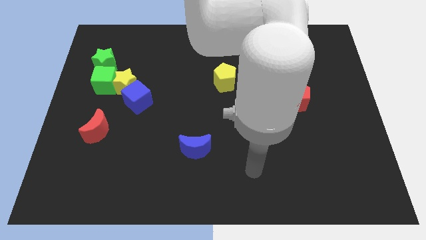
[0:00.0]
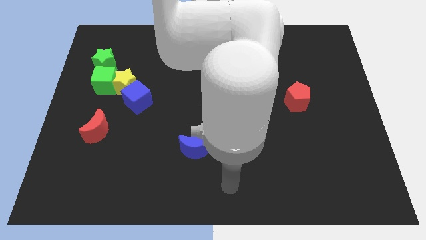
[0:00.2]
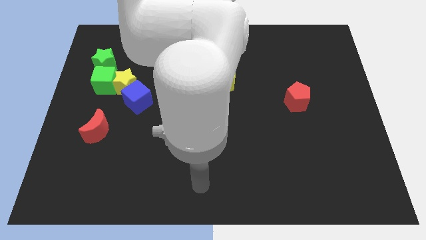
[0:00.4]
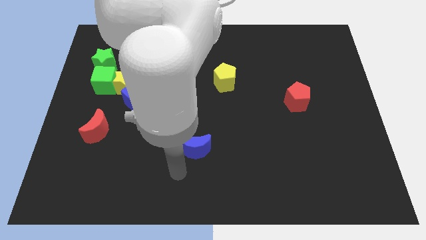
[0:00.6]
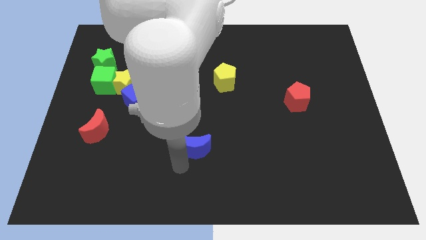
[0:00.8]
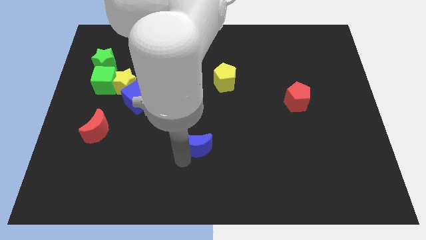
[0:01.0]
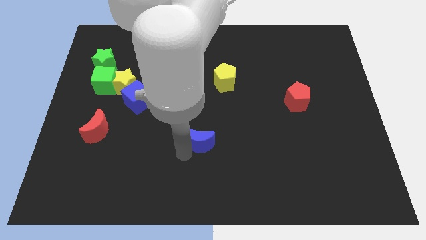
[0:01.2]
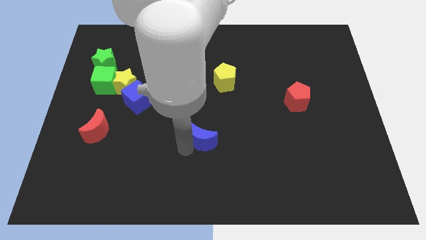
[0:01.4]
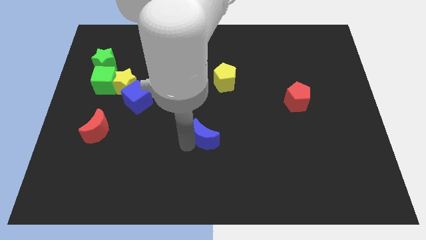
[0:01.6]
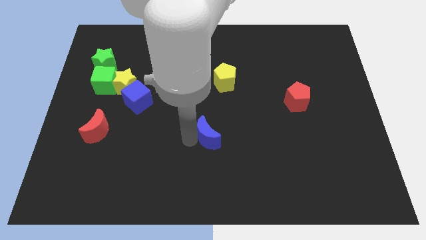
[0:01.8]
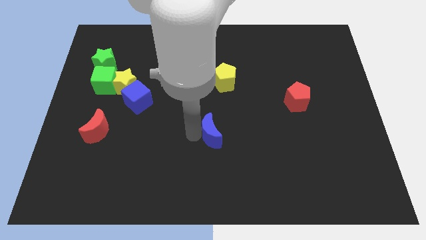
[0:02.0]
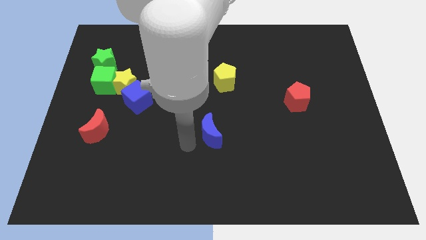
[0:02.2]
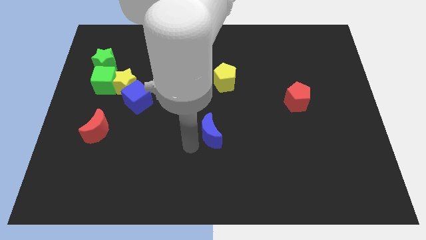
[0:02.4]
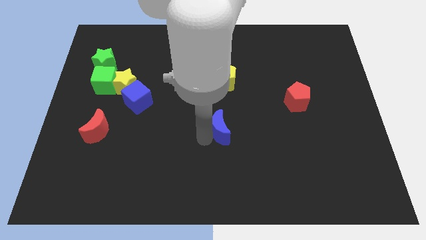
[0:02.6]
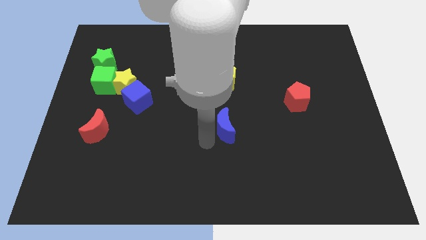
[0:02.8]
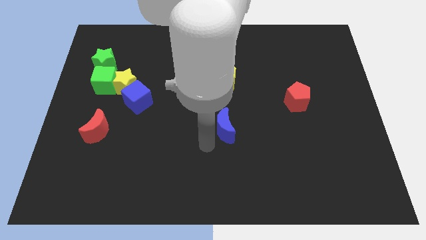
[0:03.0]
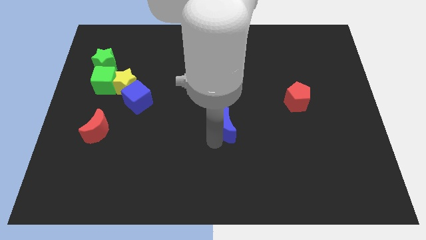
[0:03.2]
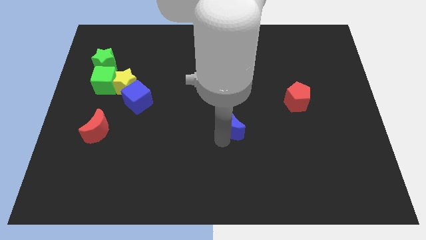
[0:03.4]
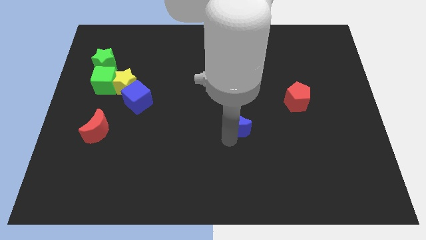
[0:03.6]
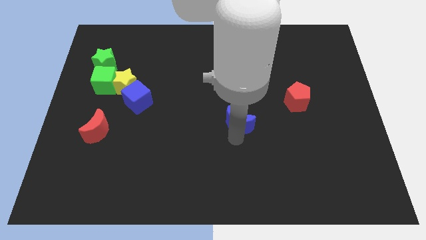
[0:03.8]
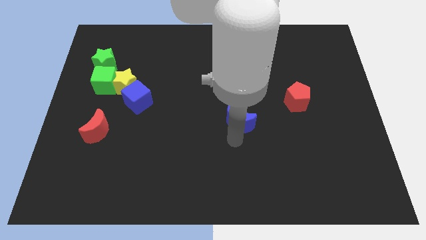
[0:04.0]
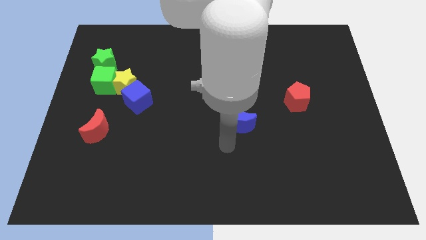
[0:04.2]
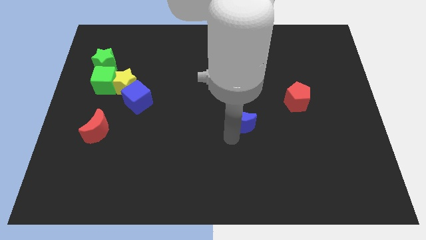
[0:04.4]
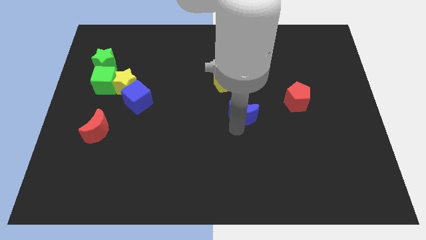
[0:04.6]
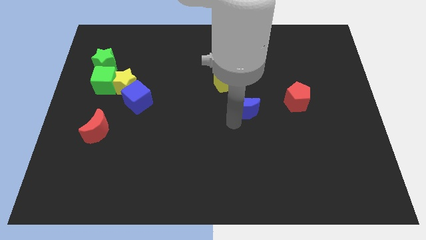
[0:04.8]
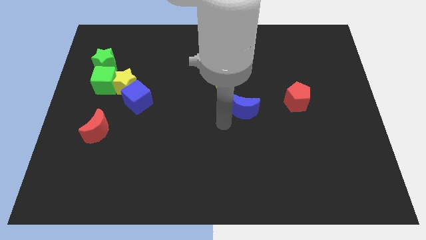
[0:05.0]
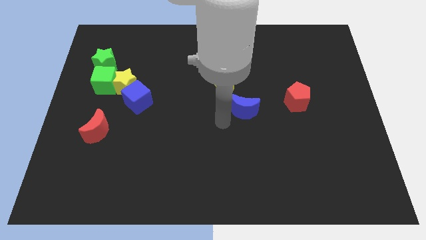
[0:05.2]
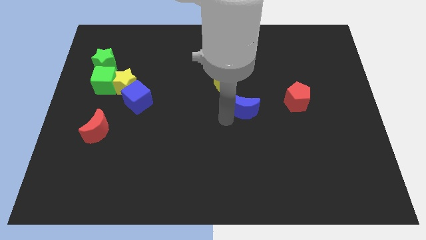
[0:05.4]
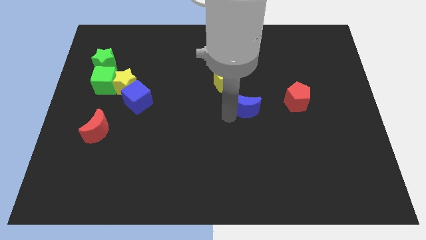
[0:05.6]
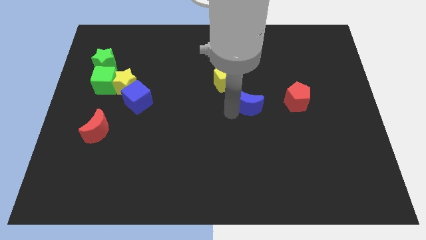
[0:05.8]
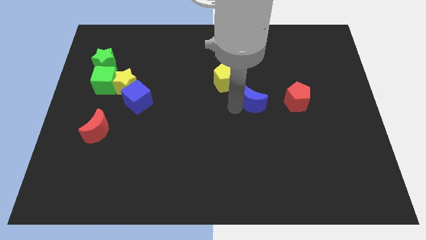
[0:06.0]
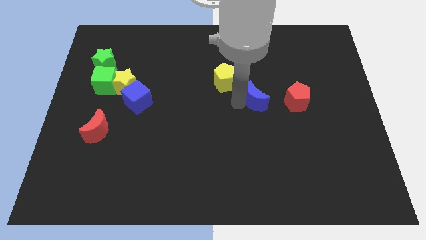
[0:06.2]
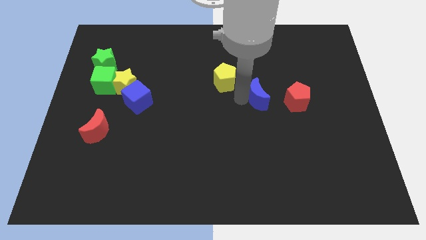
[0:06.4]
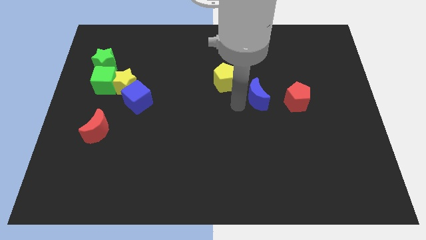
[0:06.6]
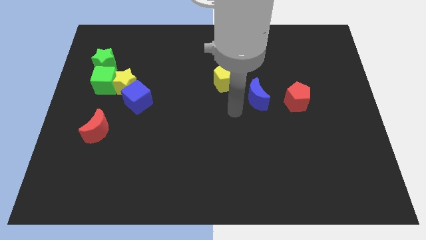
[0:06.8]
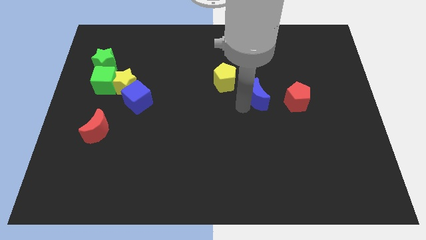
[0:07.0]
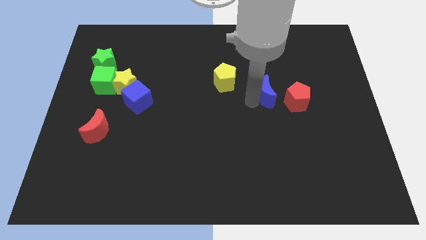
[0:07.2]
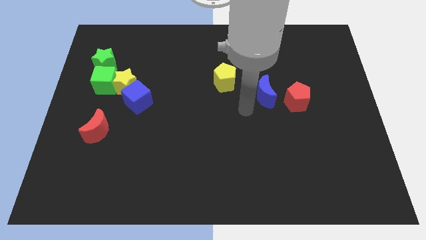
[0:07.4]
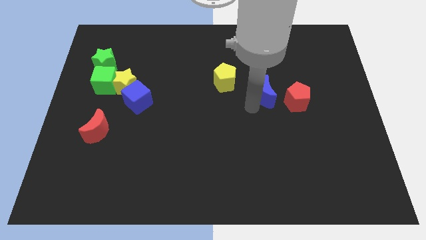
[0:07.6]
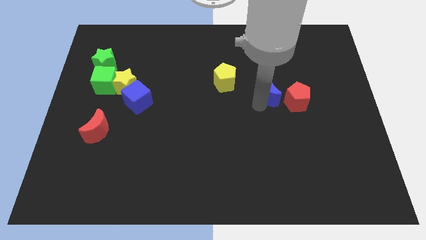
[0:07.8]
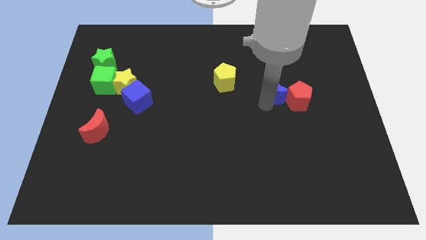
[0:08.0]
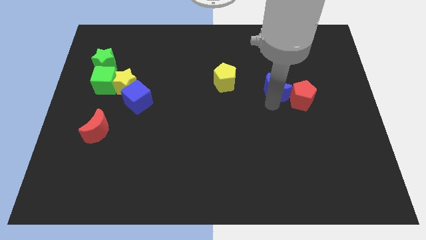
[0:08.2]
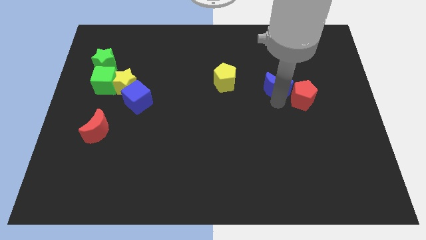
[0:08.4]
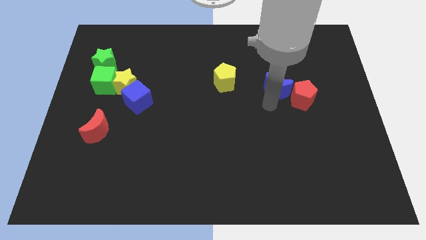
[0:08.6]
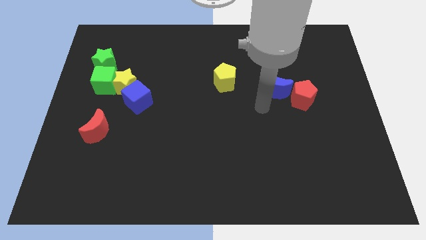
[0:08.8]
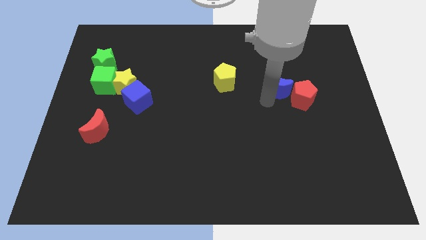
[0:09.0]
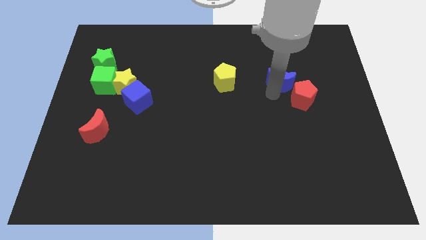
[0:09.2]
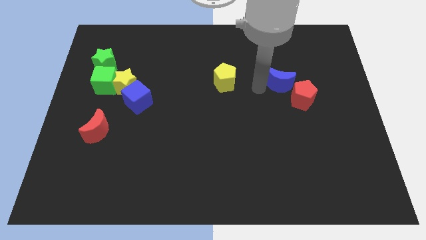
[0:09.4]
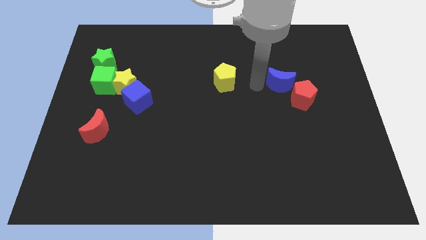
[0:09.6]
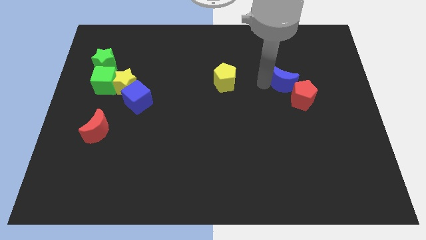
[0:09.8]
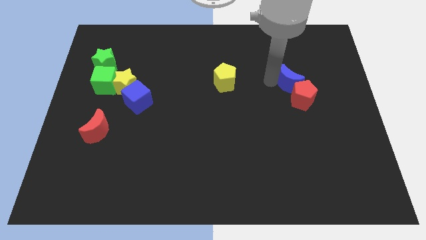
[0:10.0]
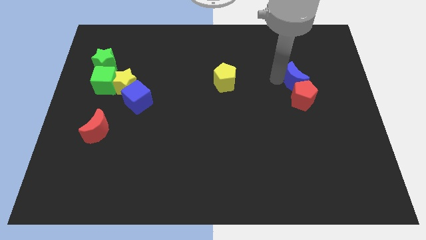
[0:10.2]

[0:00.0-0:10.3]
push the blue moon to the top right of the red pentagon
